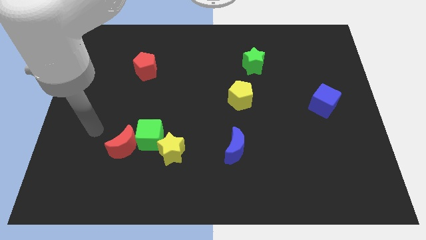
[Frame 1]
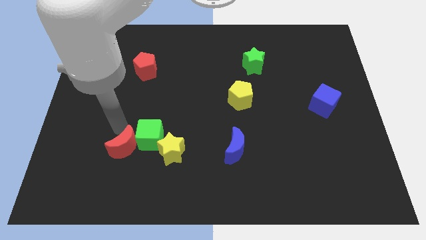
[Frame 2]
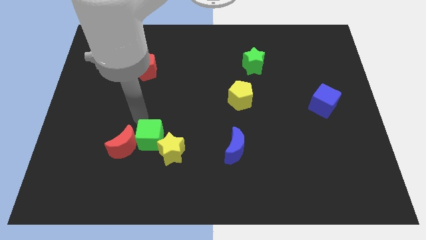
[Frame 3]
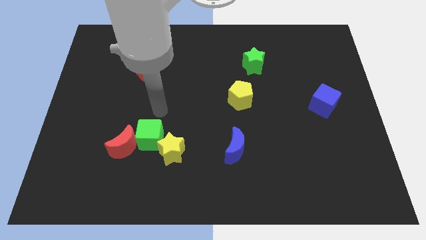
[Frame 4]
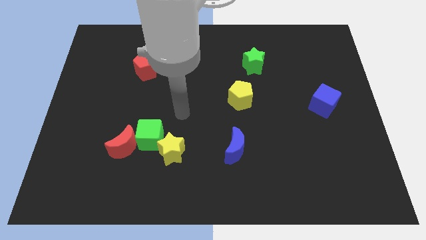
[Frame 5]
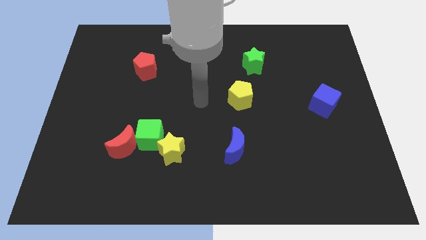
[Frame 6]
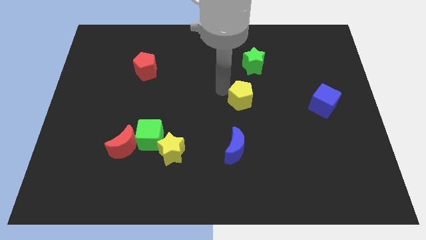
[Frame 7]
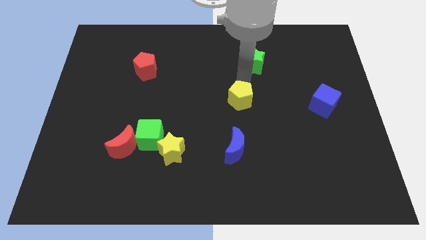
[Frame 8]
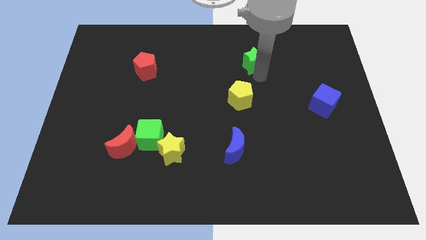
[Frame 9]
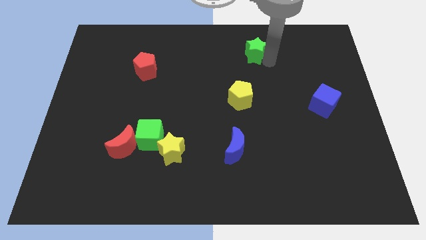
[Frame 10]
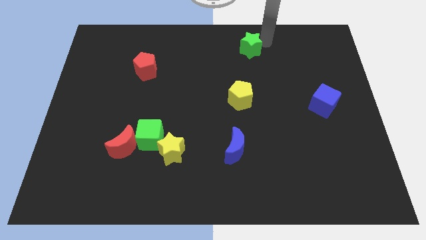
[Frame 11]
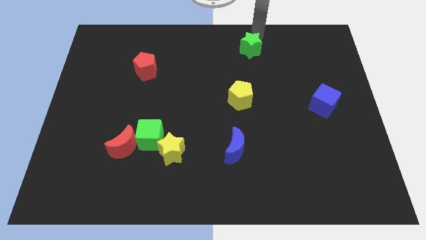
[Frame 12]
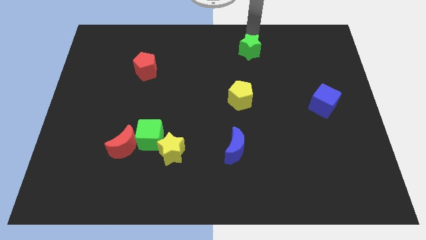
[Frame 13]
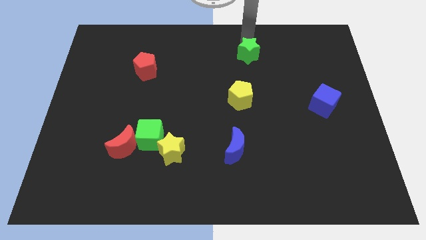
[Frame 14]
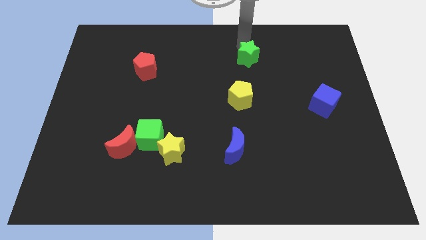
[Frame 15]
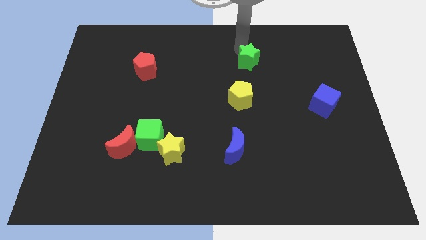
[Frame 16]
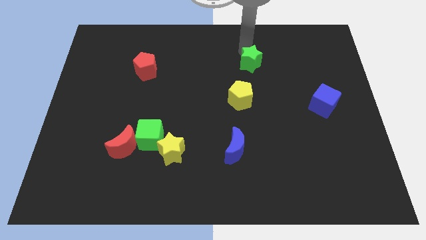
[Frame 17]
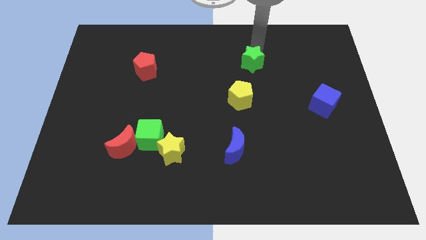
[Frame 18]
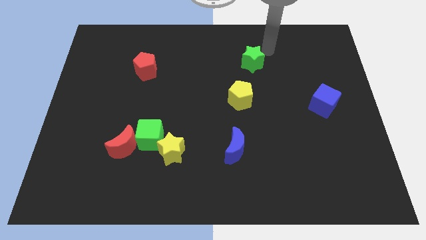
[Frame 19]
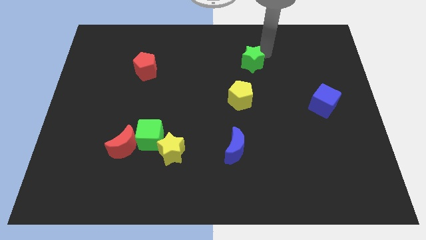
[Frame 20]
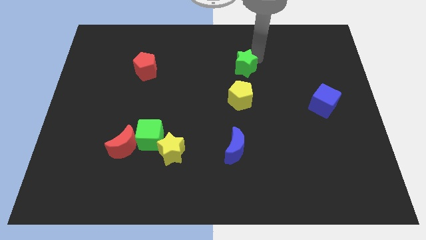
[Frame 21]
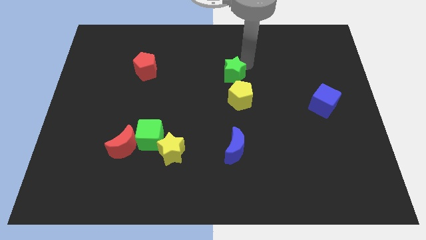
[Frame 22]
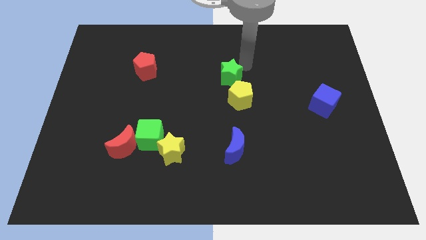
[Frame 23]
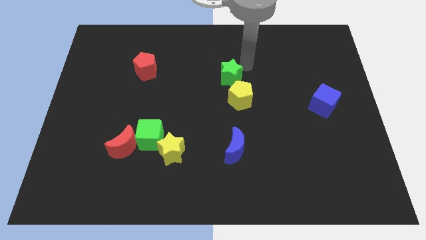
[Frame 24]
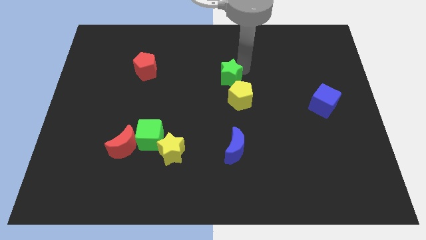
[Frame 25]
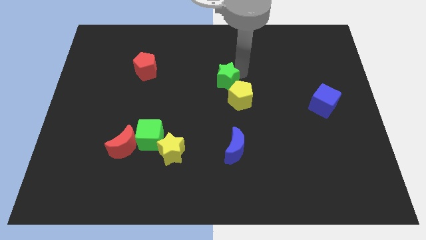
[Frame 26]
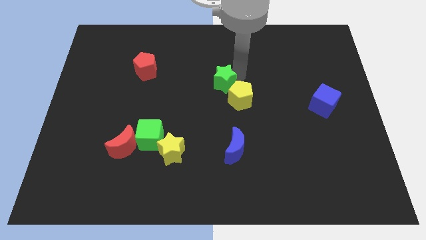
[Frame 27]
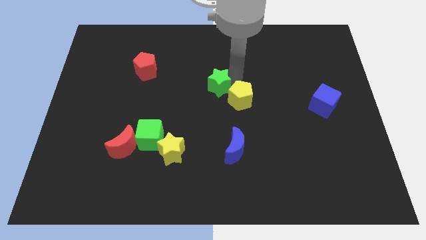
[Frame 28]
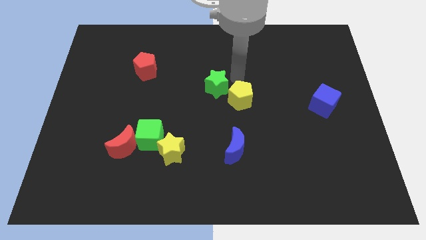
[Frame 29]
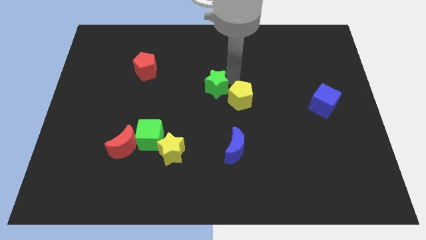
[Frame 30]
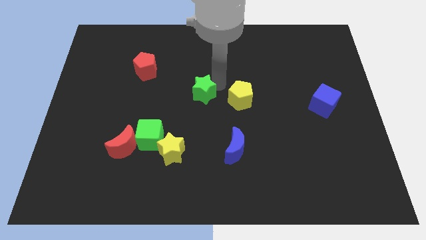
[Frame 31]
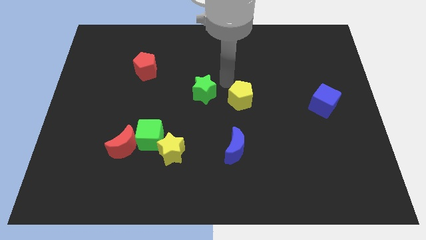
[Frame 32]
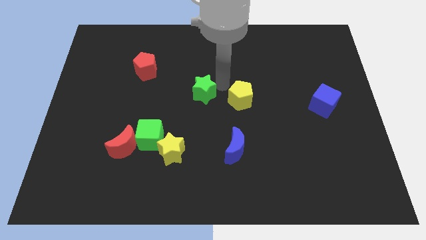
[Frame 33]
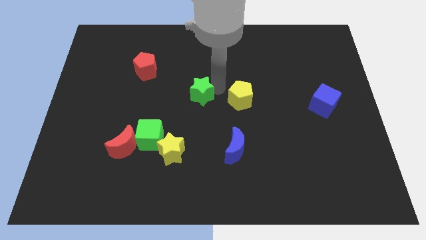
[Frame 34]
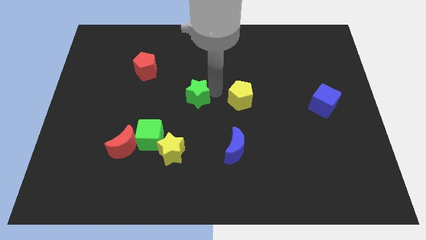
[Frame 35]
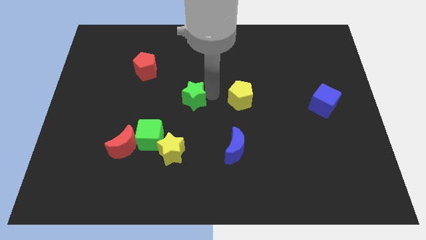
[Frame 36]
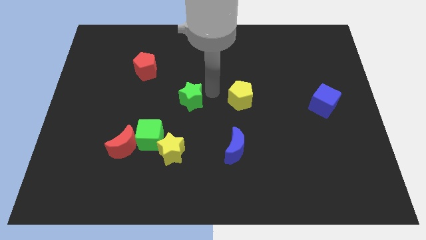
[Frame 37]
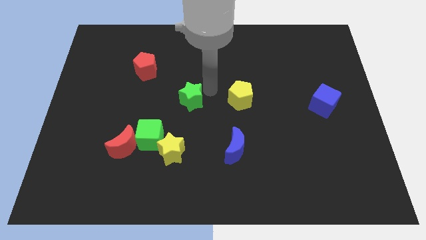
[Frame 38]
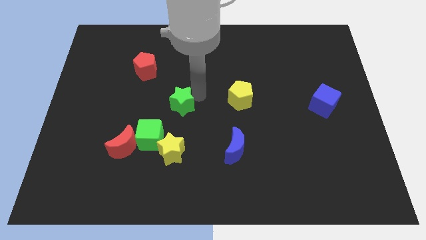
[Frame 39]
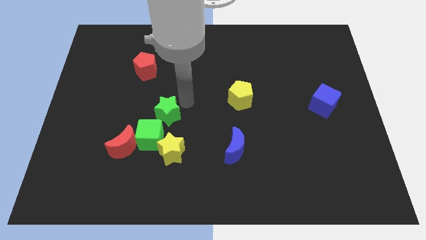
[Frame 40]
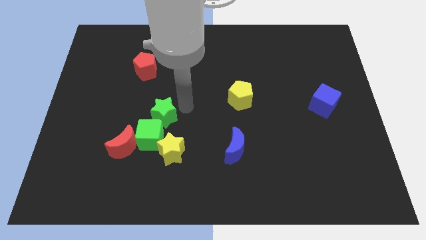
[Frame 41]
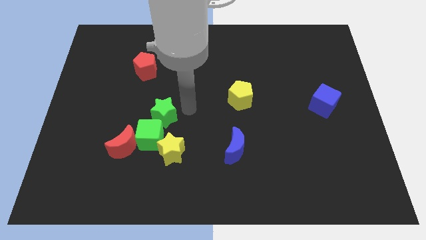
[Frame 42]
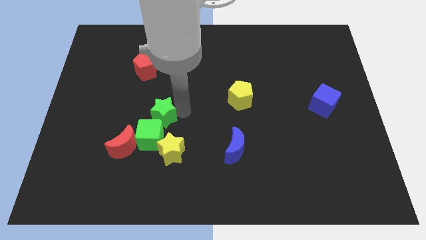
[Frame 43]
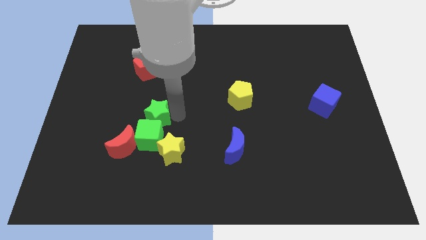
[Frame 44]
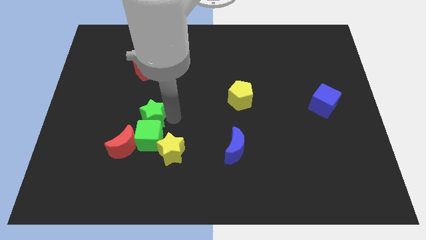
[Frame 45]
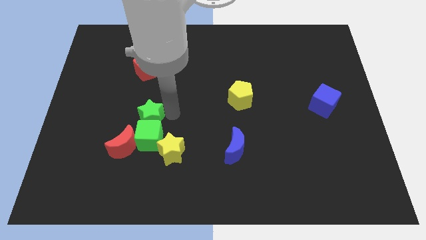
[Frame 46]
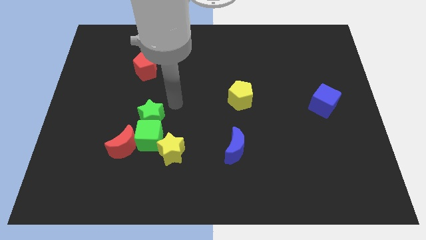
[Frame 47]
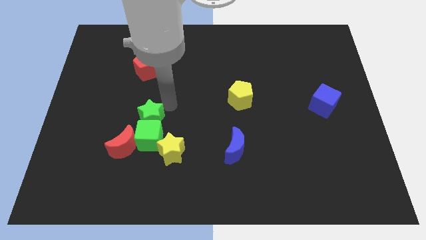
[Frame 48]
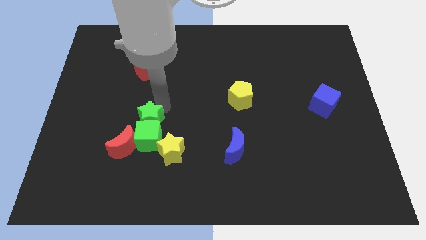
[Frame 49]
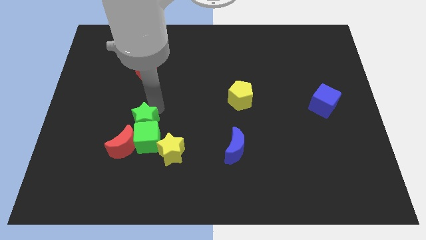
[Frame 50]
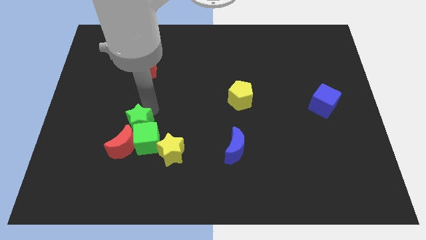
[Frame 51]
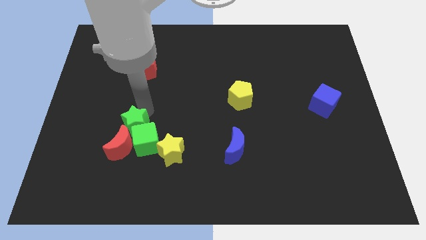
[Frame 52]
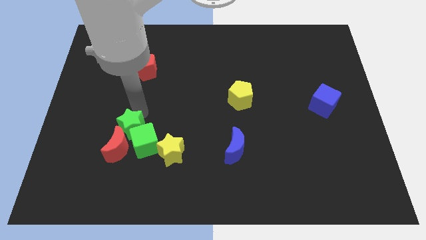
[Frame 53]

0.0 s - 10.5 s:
move the green star to the red moon

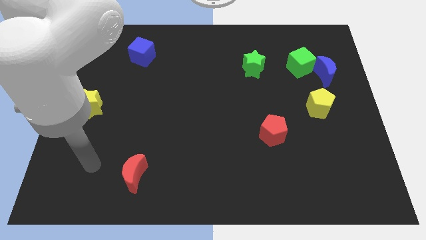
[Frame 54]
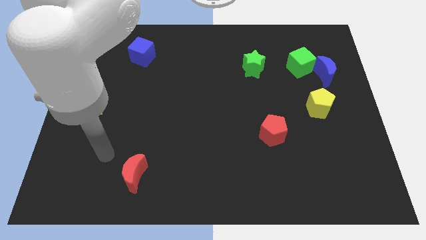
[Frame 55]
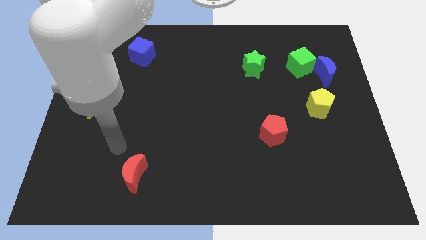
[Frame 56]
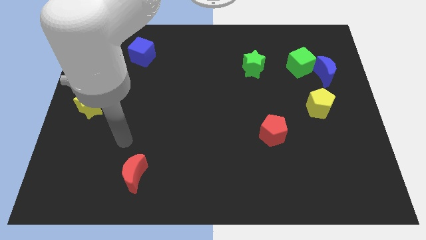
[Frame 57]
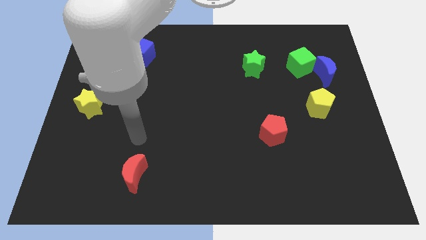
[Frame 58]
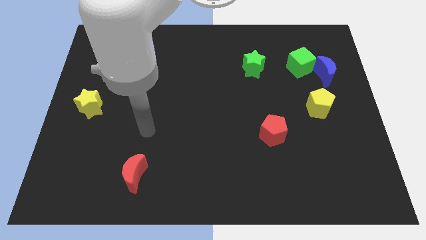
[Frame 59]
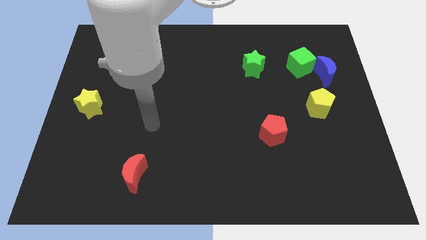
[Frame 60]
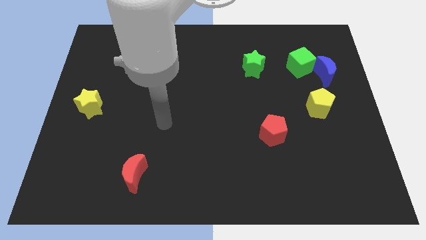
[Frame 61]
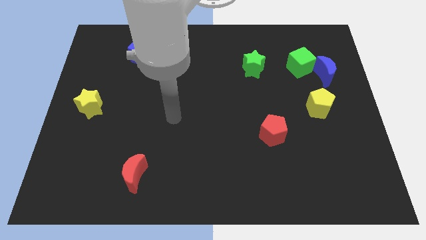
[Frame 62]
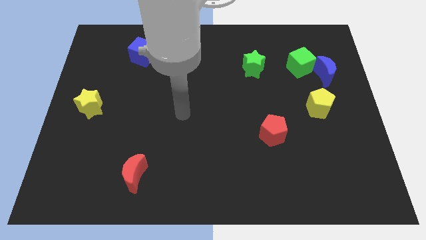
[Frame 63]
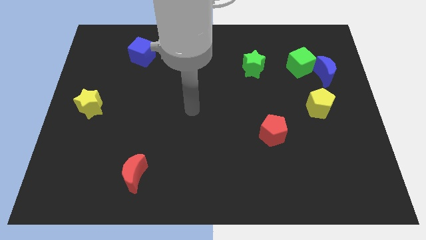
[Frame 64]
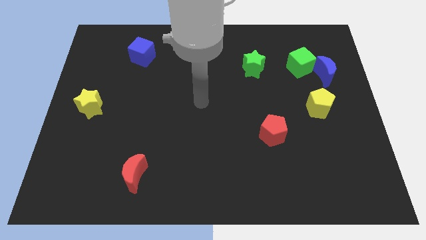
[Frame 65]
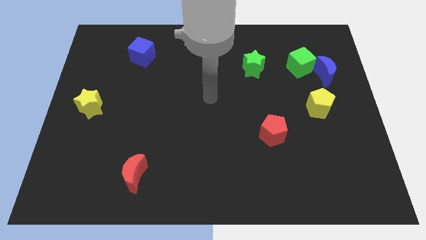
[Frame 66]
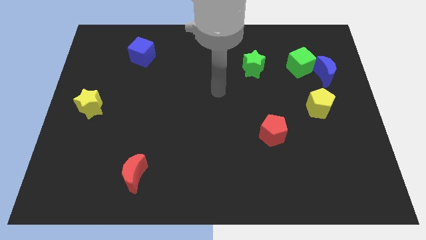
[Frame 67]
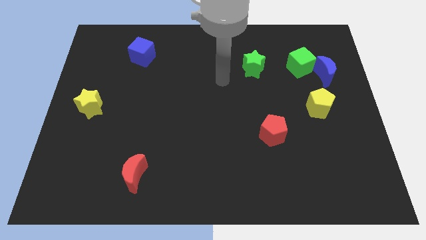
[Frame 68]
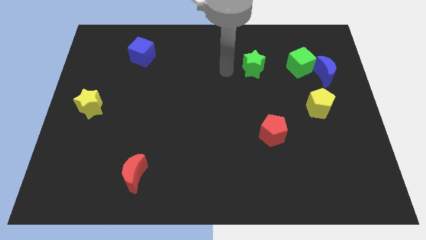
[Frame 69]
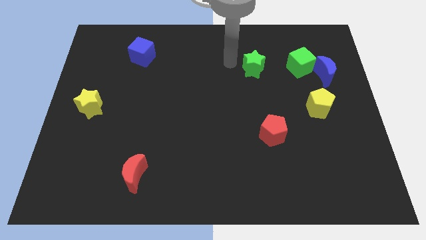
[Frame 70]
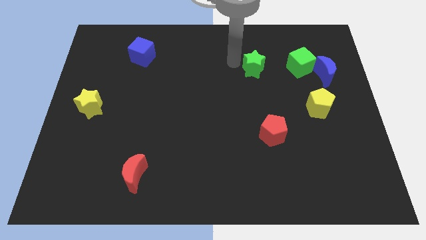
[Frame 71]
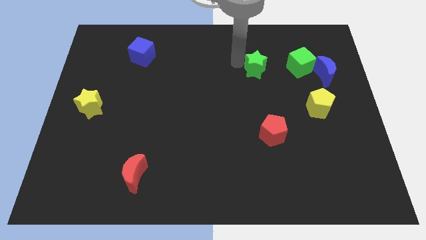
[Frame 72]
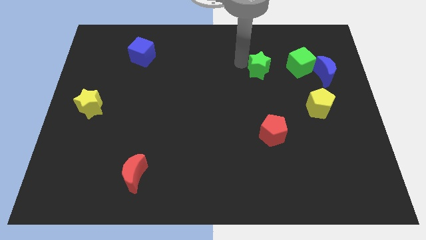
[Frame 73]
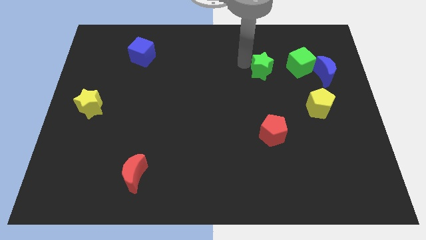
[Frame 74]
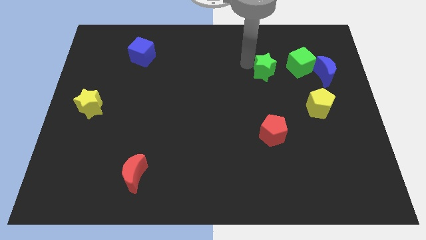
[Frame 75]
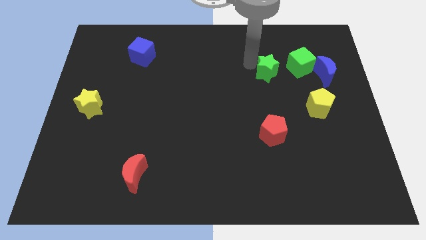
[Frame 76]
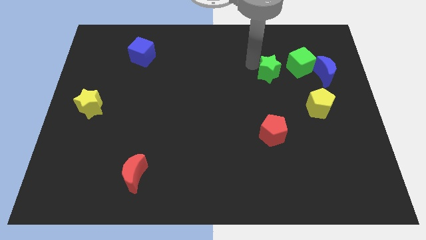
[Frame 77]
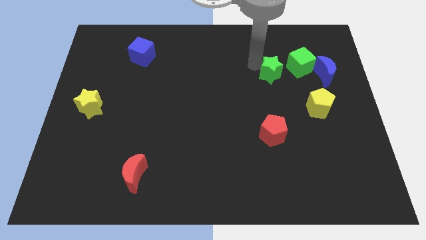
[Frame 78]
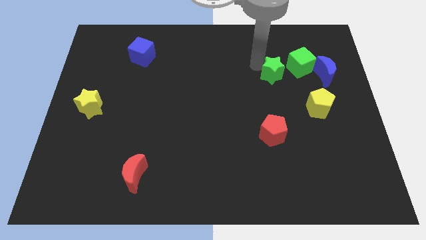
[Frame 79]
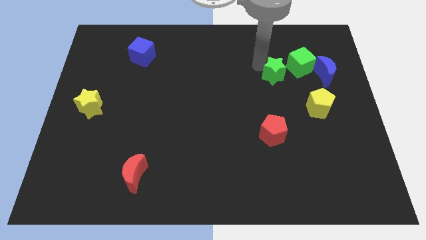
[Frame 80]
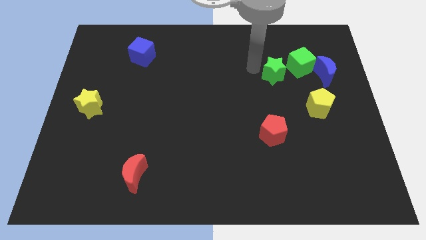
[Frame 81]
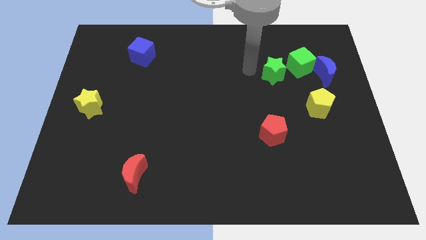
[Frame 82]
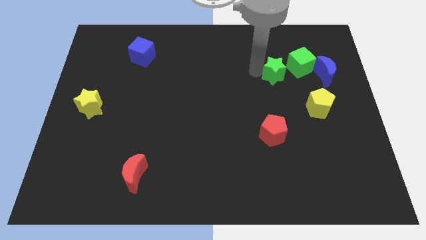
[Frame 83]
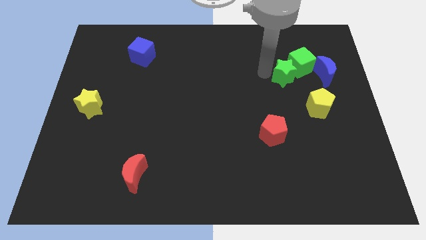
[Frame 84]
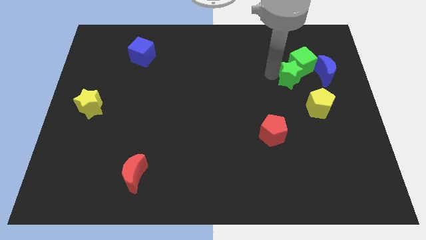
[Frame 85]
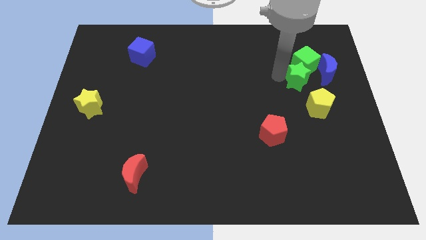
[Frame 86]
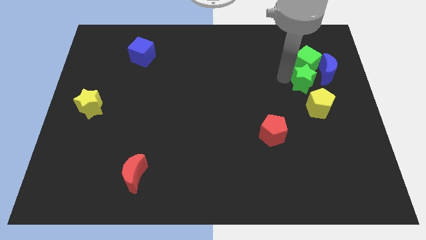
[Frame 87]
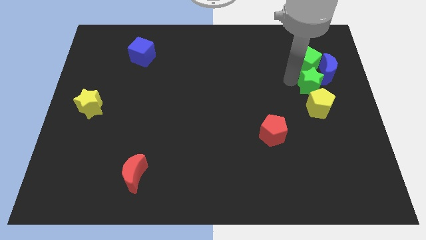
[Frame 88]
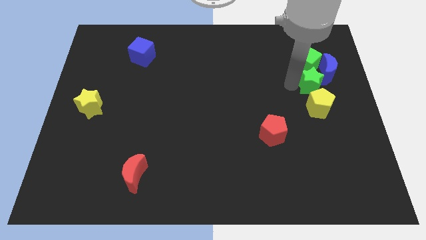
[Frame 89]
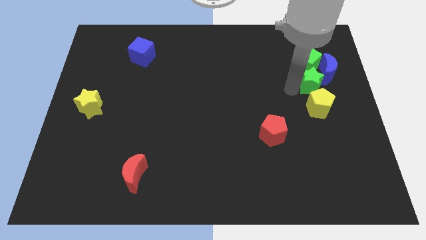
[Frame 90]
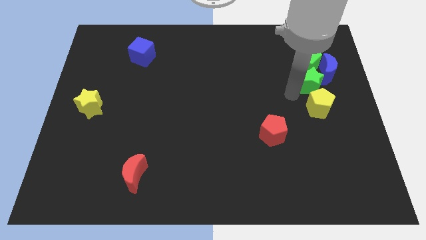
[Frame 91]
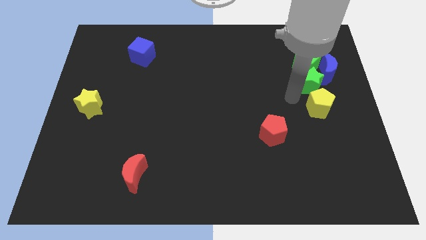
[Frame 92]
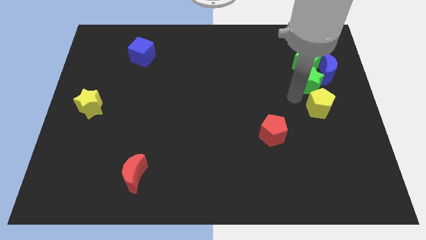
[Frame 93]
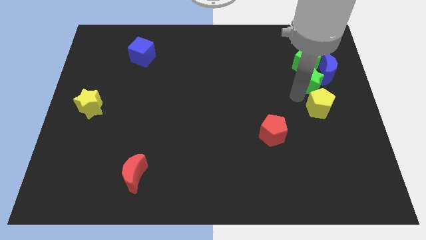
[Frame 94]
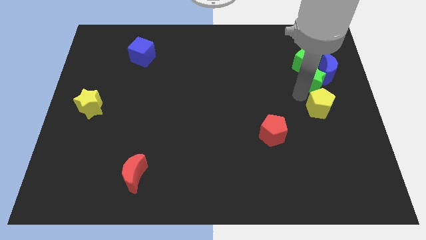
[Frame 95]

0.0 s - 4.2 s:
push the green star close to the blue moon
